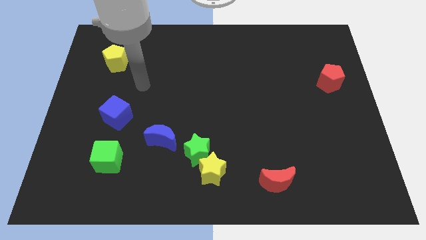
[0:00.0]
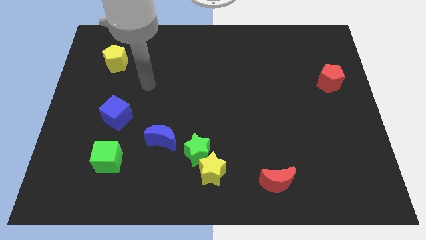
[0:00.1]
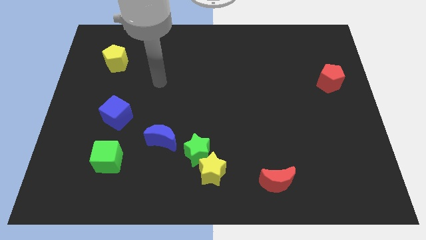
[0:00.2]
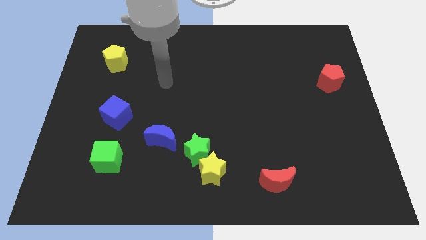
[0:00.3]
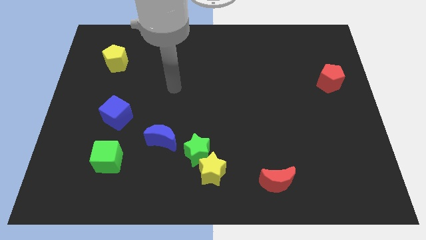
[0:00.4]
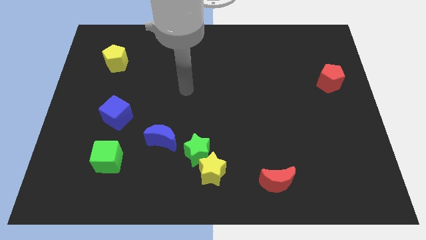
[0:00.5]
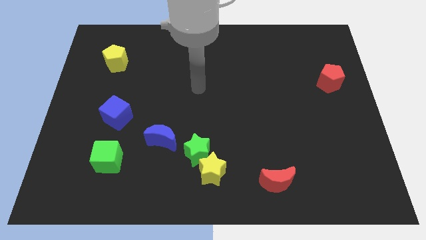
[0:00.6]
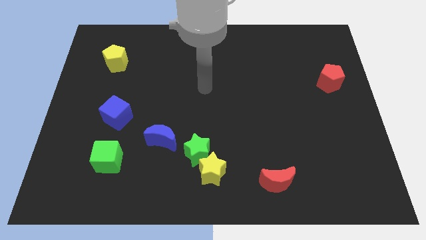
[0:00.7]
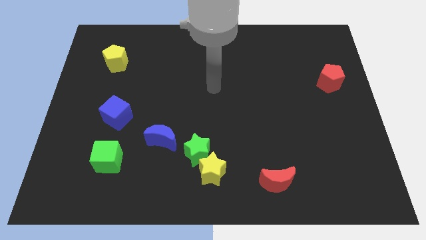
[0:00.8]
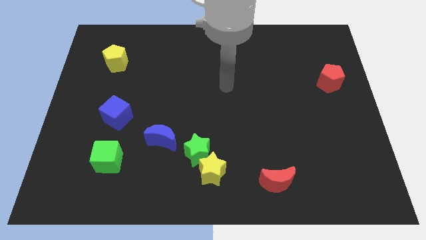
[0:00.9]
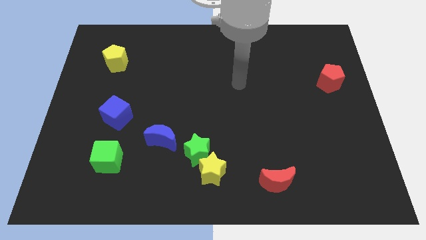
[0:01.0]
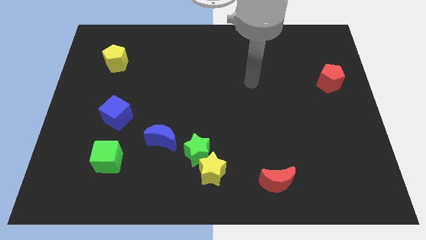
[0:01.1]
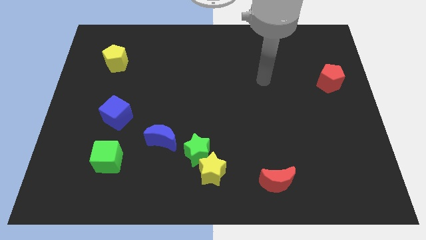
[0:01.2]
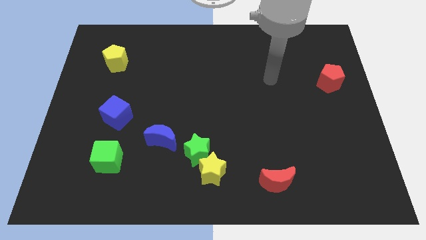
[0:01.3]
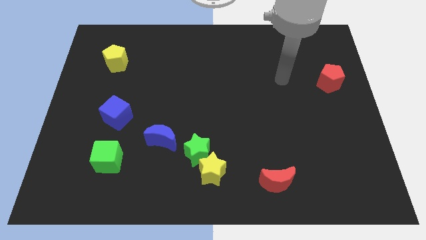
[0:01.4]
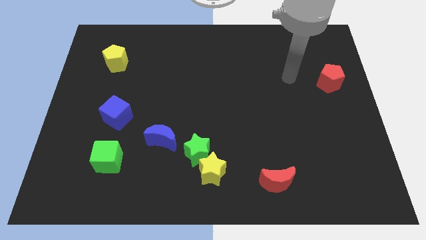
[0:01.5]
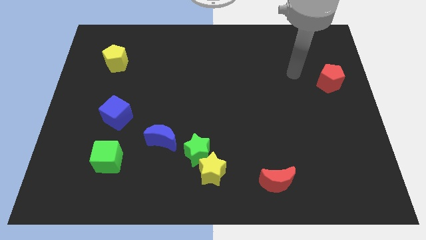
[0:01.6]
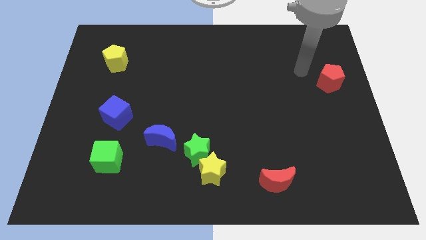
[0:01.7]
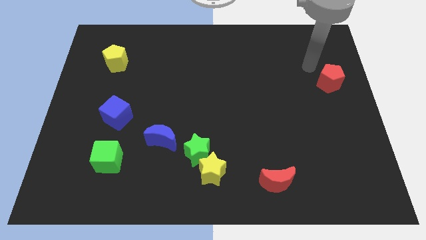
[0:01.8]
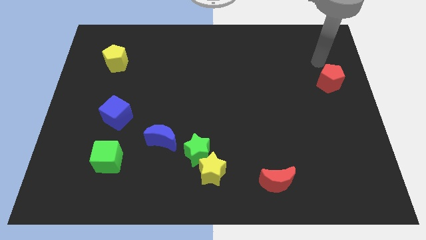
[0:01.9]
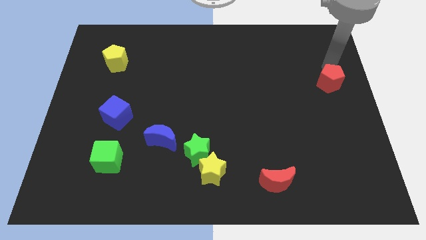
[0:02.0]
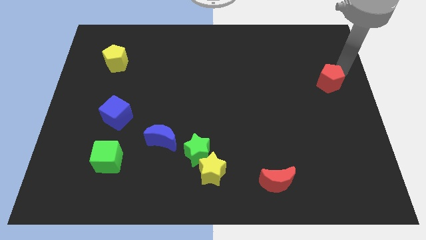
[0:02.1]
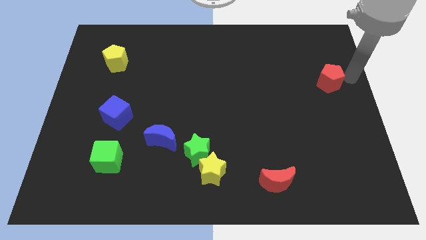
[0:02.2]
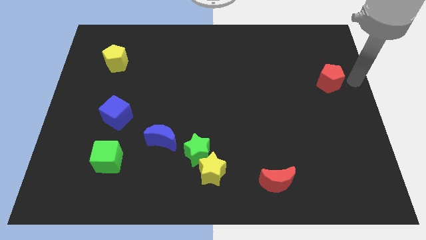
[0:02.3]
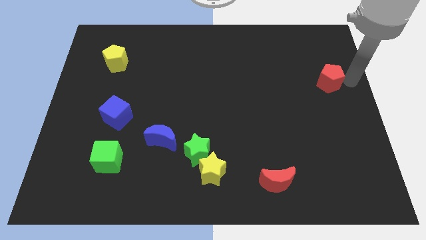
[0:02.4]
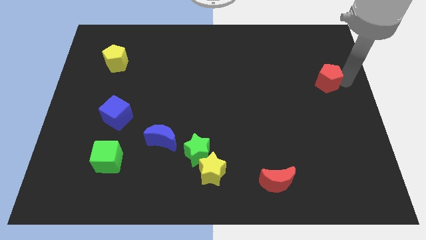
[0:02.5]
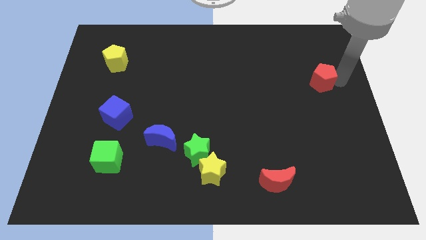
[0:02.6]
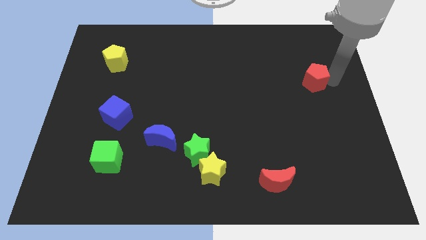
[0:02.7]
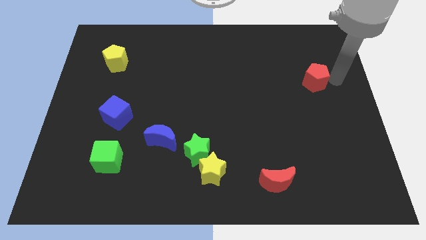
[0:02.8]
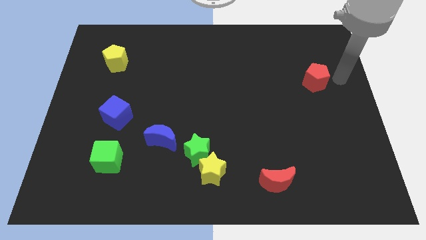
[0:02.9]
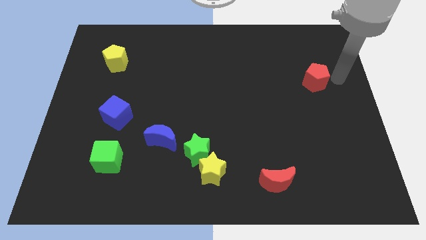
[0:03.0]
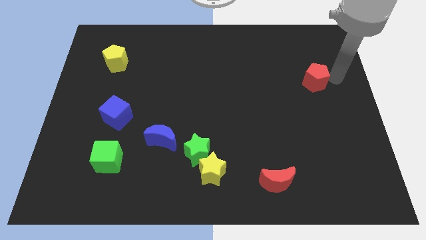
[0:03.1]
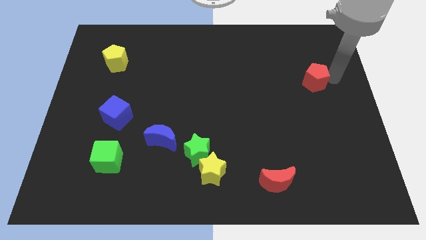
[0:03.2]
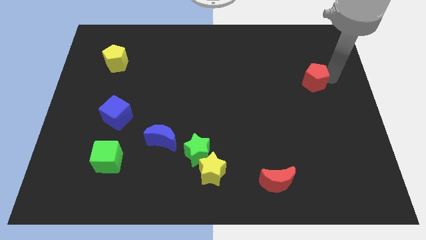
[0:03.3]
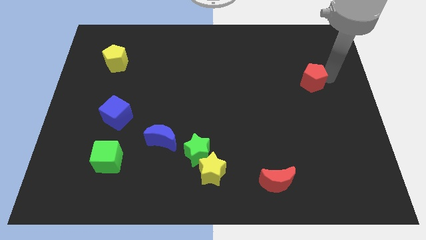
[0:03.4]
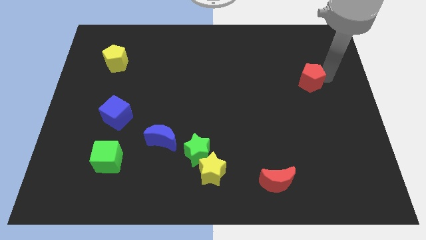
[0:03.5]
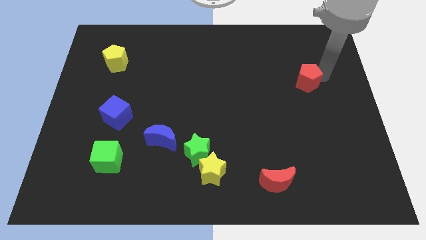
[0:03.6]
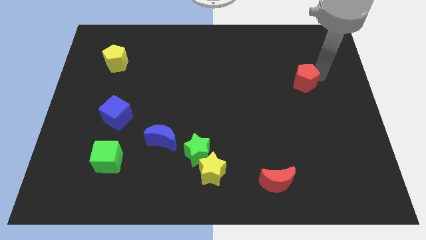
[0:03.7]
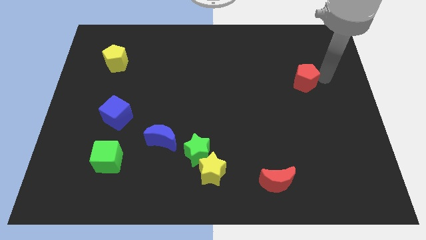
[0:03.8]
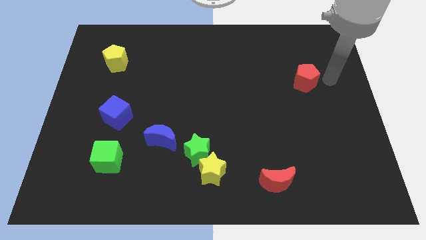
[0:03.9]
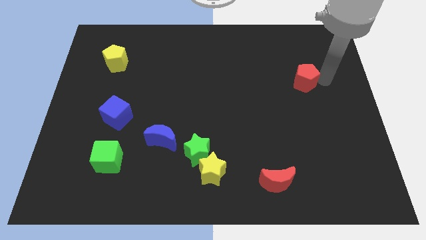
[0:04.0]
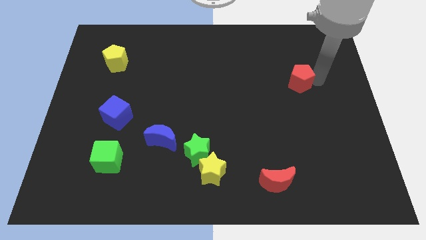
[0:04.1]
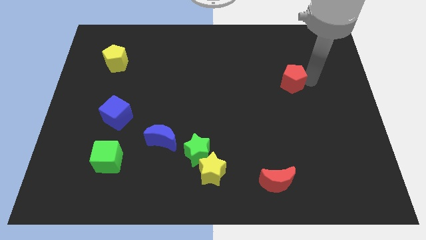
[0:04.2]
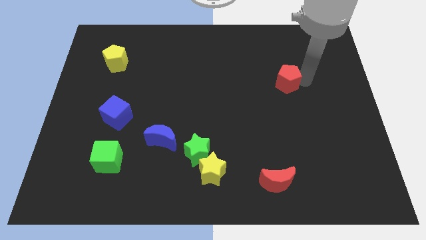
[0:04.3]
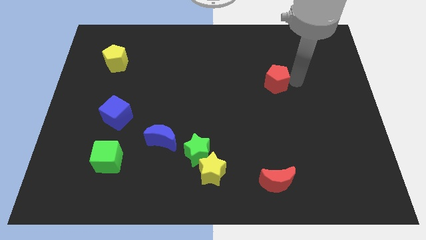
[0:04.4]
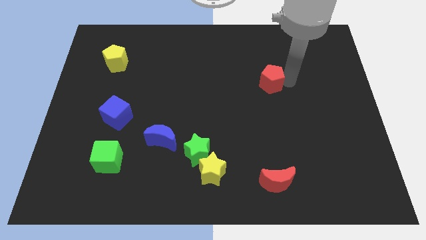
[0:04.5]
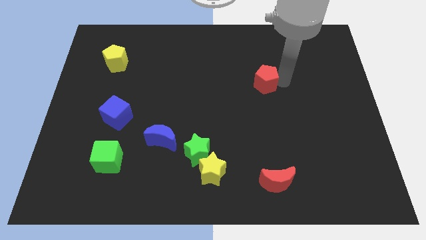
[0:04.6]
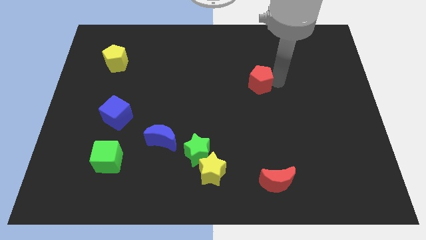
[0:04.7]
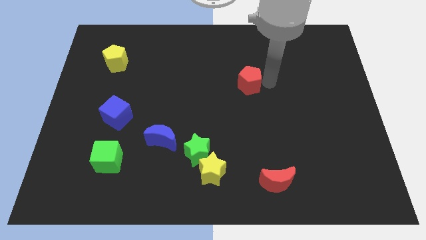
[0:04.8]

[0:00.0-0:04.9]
slide the red pentagon to the left

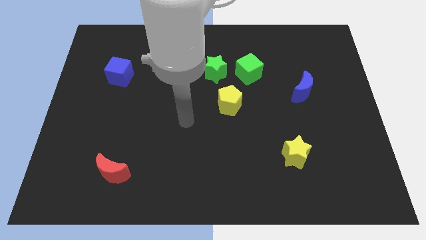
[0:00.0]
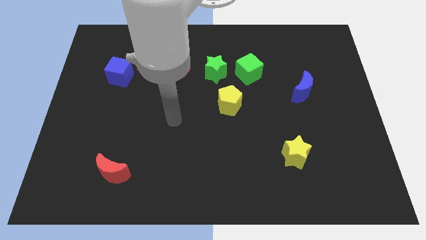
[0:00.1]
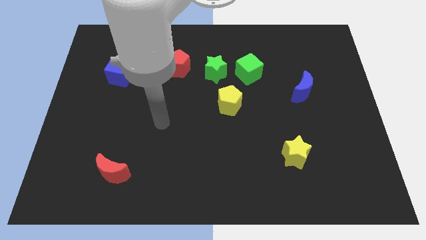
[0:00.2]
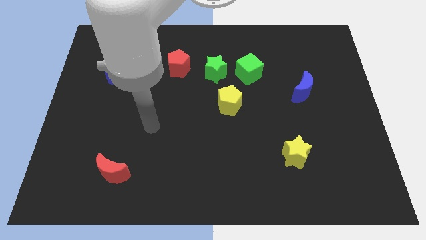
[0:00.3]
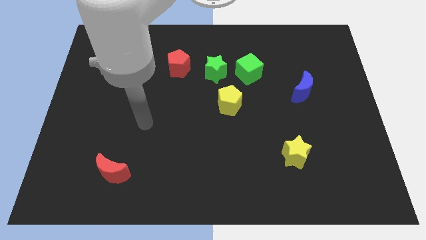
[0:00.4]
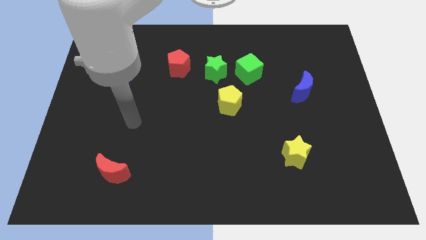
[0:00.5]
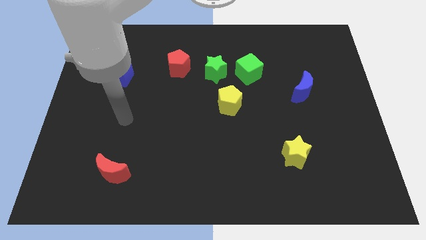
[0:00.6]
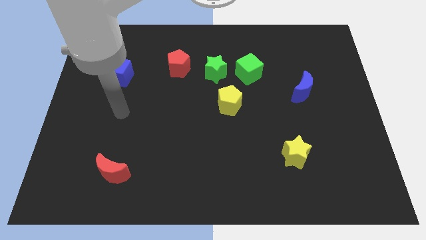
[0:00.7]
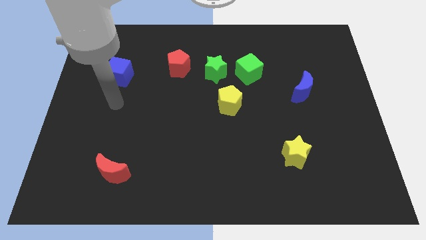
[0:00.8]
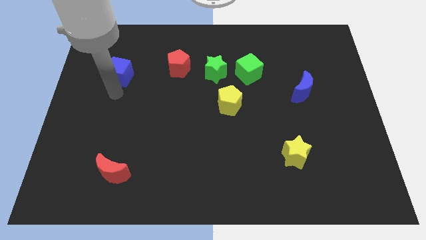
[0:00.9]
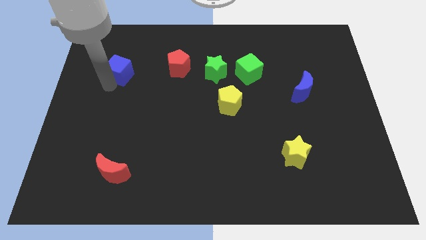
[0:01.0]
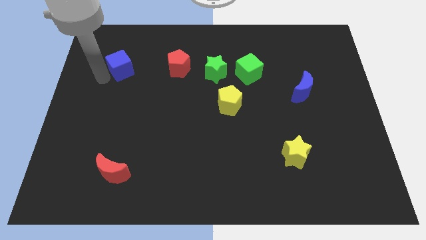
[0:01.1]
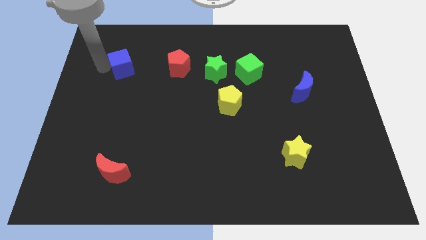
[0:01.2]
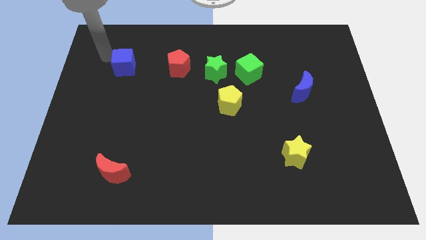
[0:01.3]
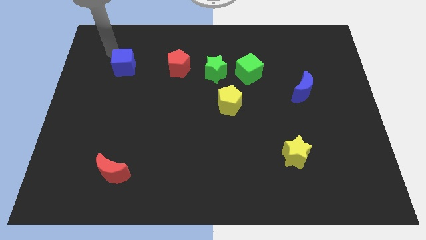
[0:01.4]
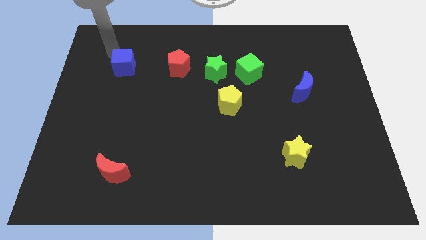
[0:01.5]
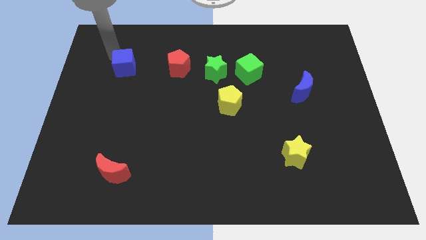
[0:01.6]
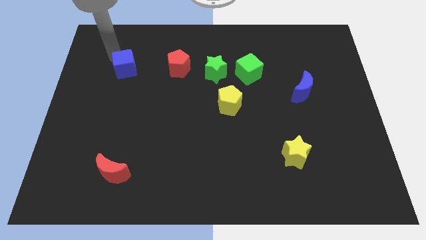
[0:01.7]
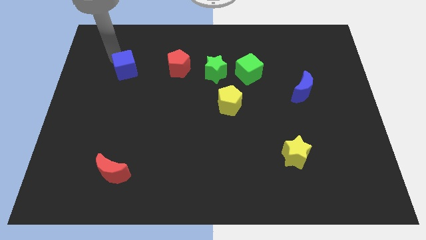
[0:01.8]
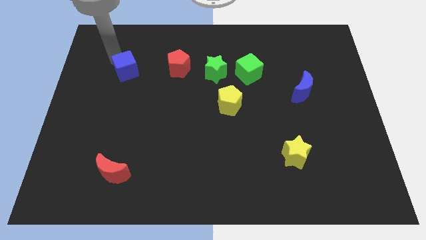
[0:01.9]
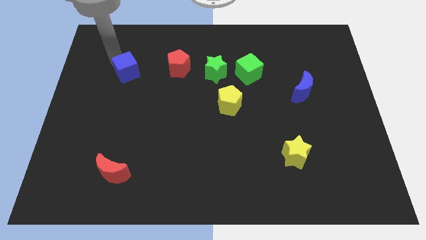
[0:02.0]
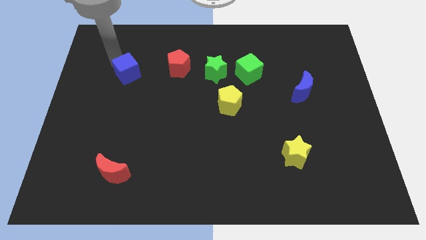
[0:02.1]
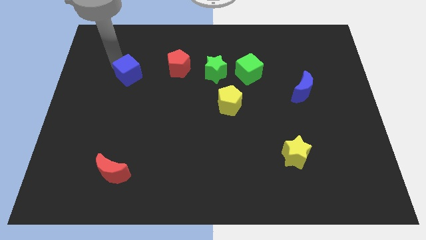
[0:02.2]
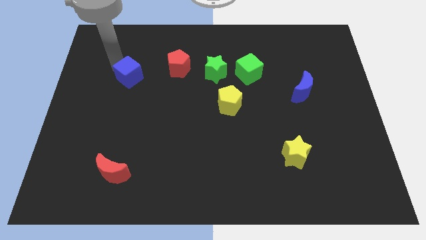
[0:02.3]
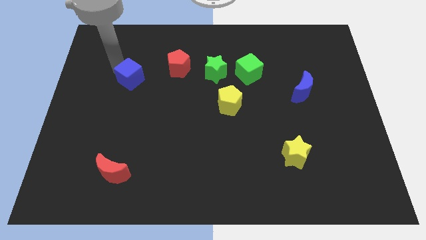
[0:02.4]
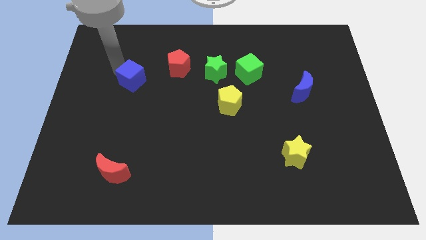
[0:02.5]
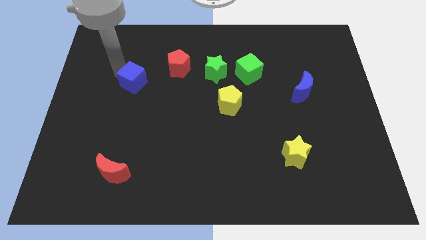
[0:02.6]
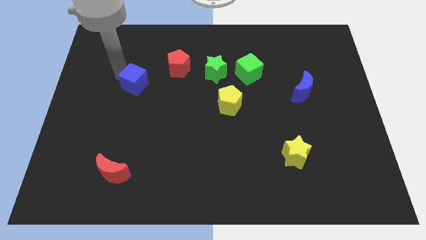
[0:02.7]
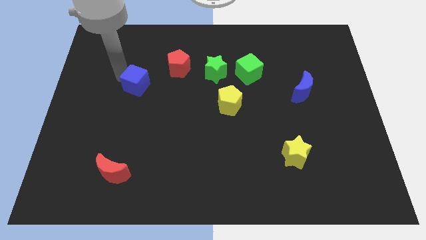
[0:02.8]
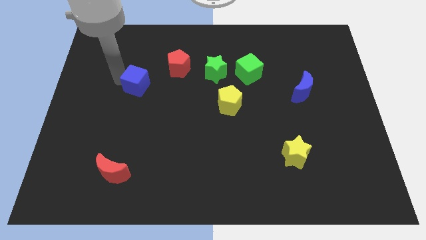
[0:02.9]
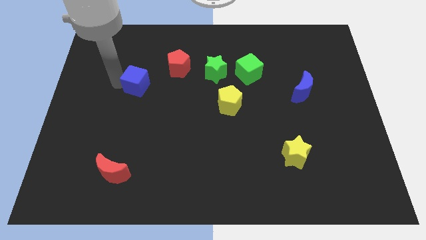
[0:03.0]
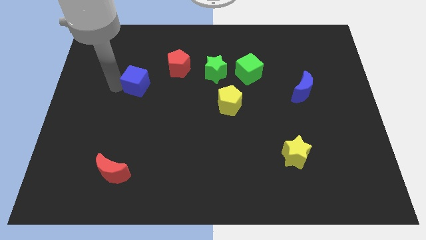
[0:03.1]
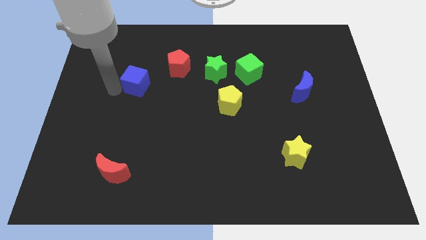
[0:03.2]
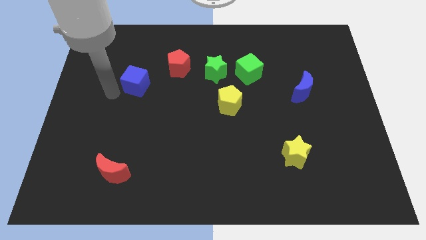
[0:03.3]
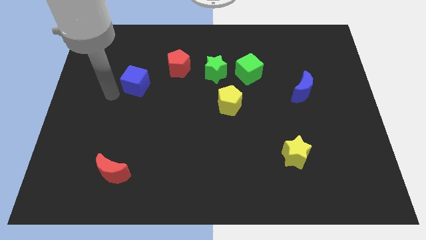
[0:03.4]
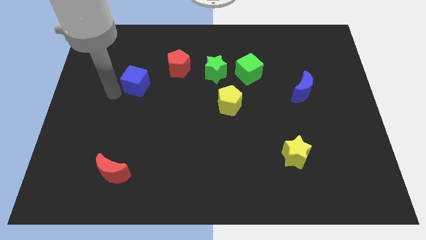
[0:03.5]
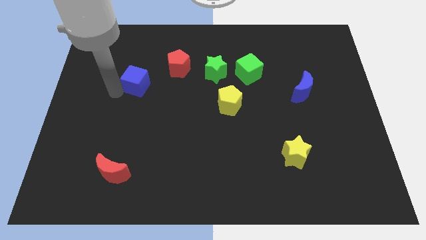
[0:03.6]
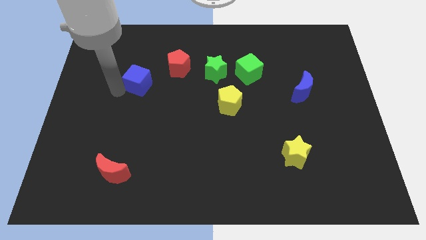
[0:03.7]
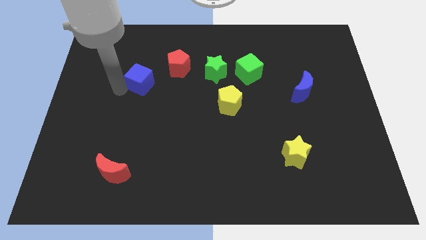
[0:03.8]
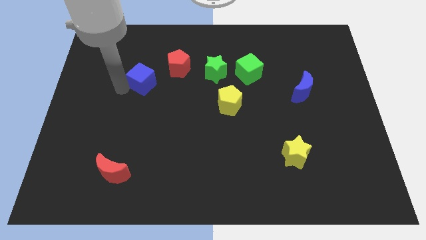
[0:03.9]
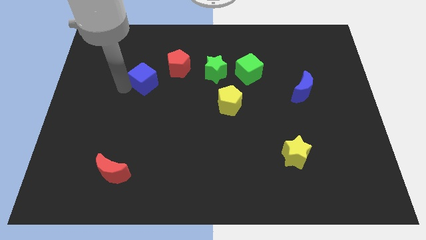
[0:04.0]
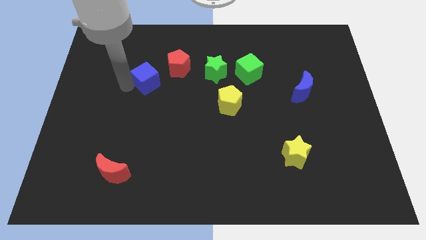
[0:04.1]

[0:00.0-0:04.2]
slightly move the blue cube to the right
